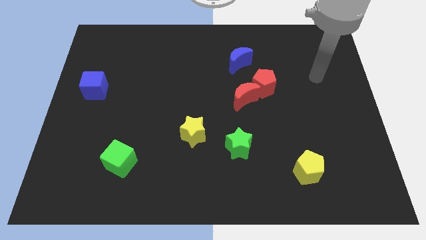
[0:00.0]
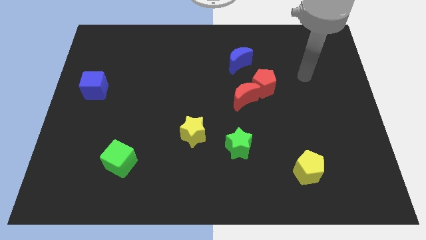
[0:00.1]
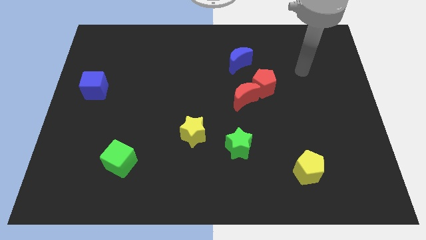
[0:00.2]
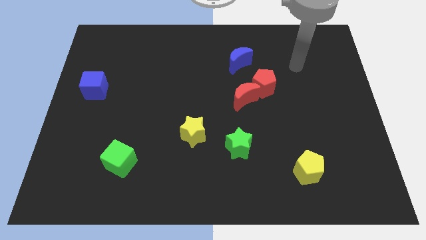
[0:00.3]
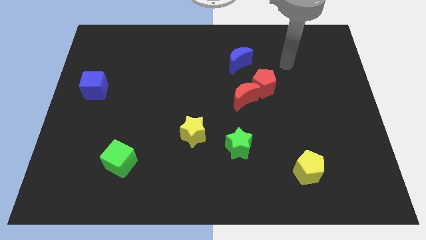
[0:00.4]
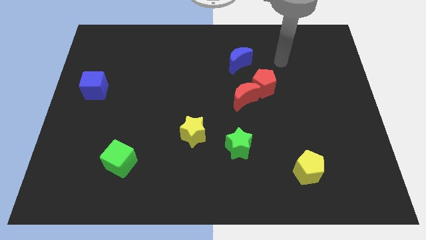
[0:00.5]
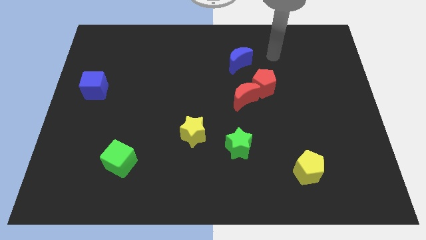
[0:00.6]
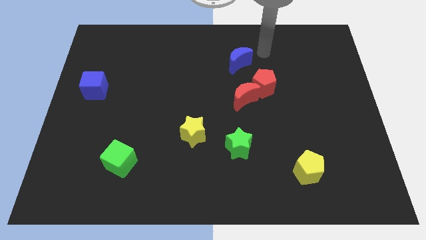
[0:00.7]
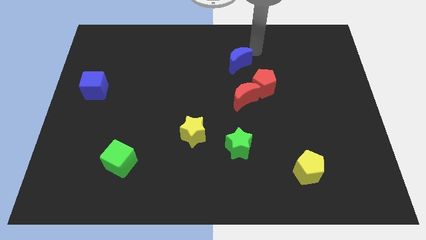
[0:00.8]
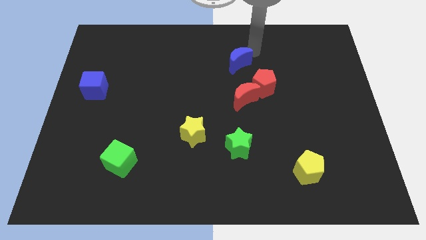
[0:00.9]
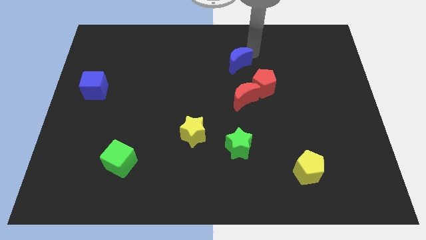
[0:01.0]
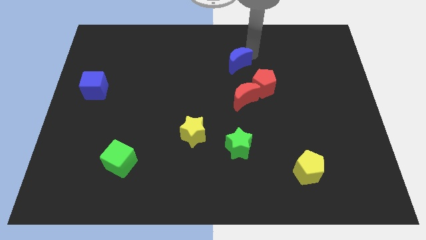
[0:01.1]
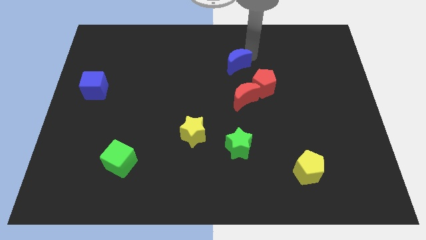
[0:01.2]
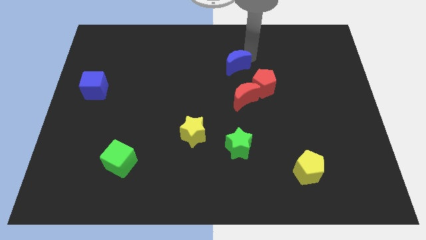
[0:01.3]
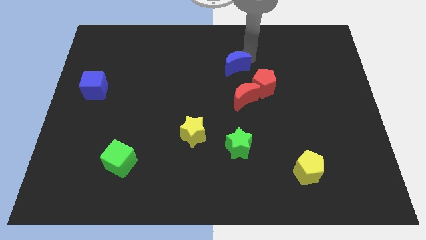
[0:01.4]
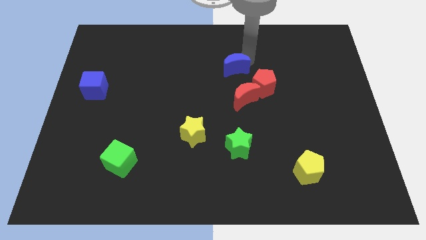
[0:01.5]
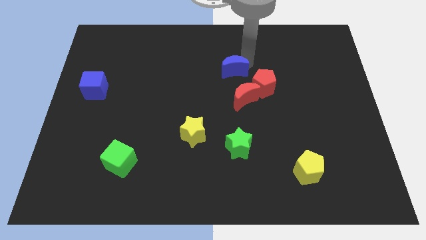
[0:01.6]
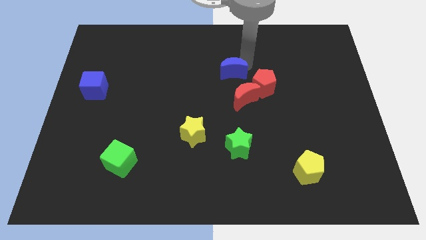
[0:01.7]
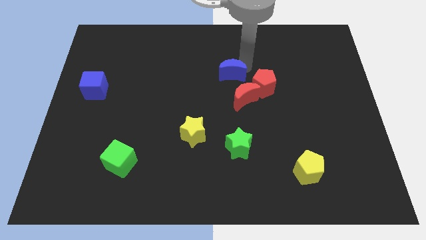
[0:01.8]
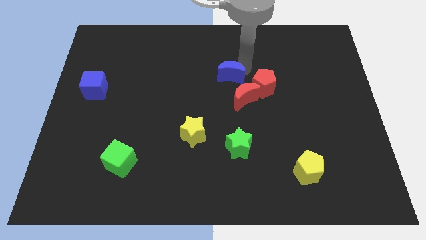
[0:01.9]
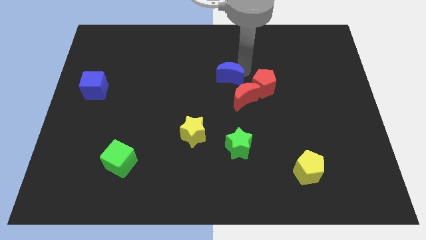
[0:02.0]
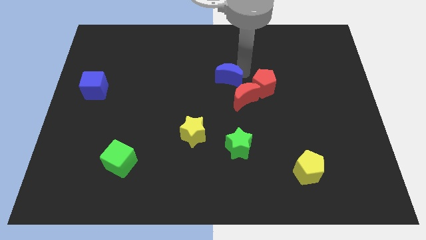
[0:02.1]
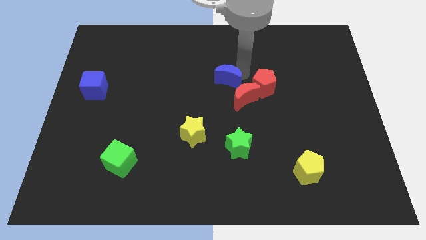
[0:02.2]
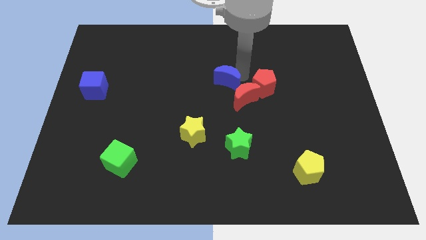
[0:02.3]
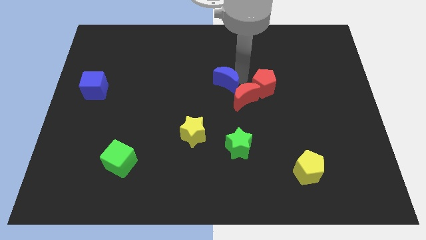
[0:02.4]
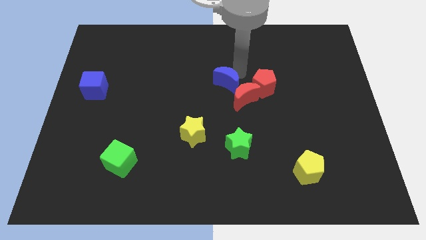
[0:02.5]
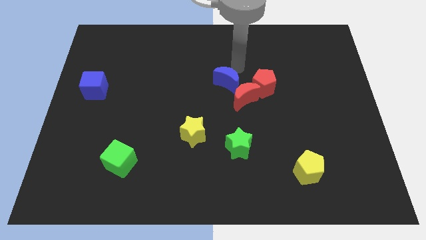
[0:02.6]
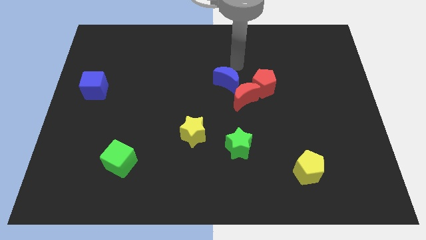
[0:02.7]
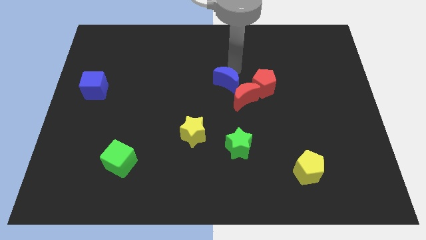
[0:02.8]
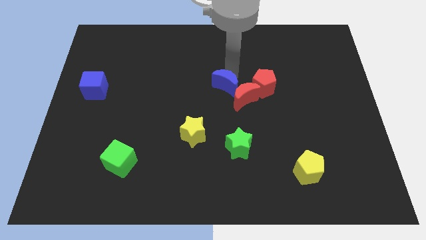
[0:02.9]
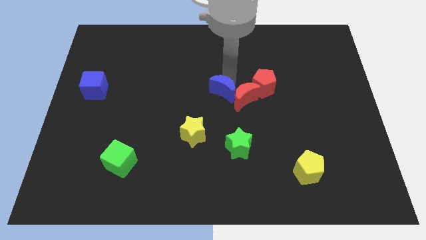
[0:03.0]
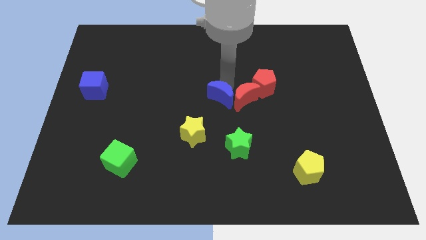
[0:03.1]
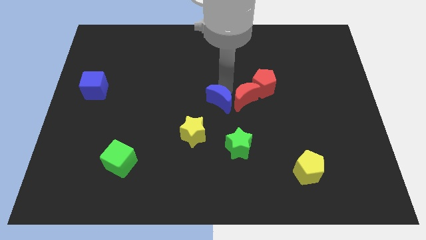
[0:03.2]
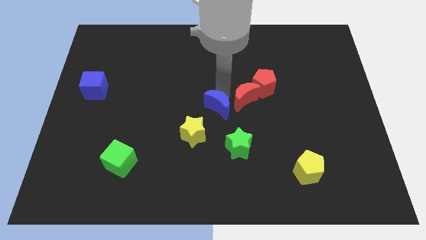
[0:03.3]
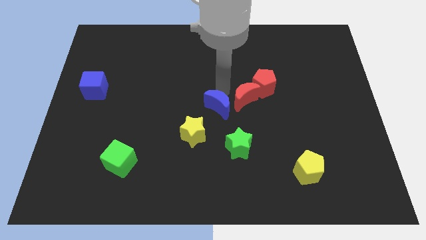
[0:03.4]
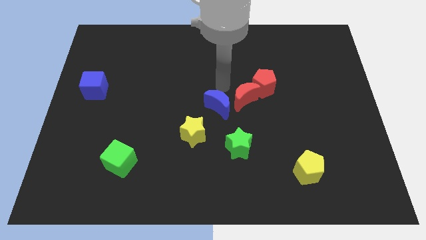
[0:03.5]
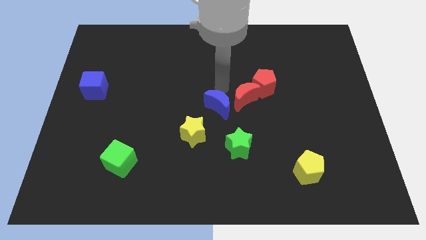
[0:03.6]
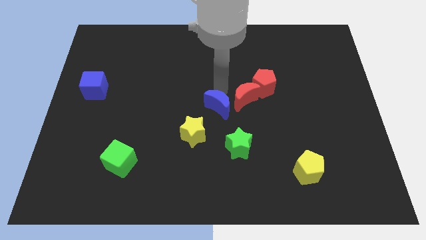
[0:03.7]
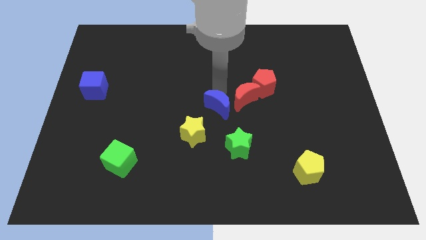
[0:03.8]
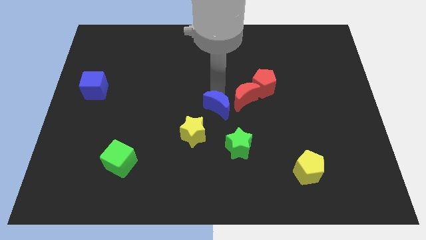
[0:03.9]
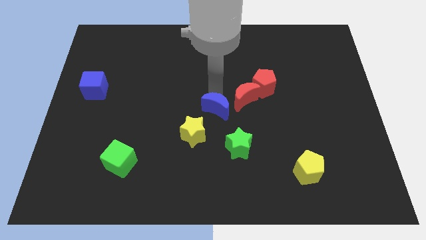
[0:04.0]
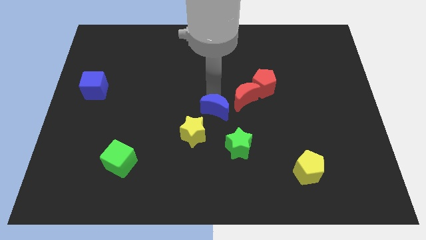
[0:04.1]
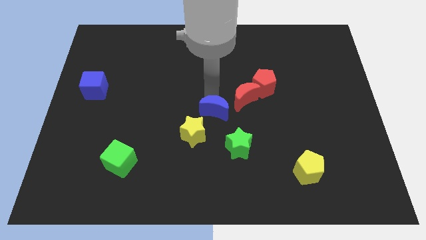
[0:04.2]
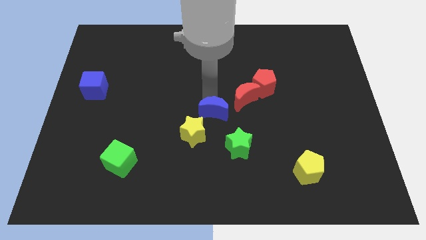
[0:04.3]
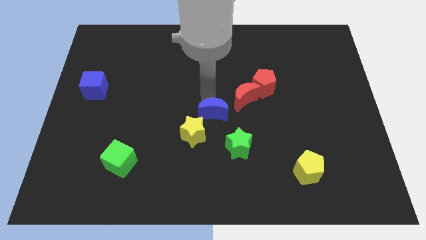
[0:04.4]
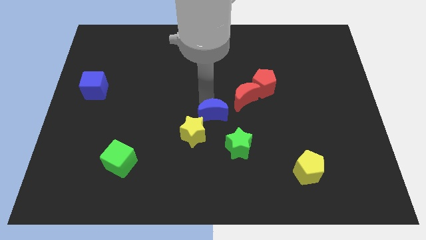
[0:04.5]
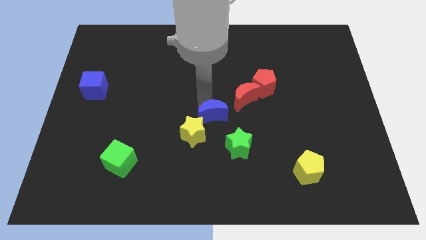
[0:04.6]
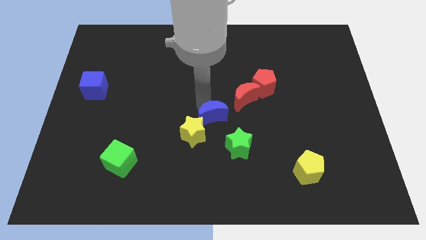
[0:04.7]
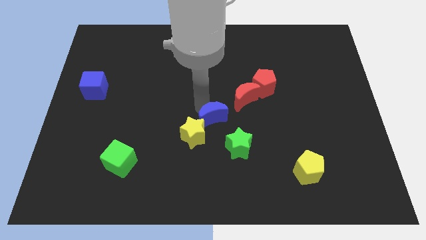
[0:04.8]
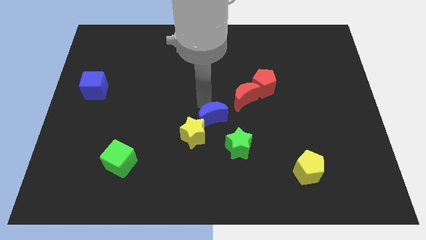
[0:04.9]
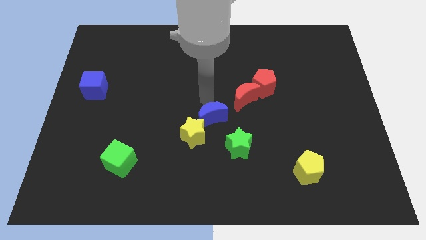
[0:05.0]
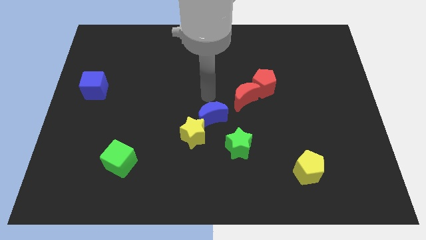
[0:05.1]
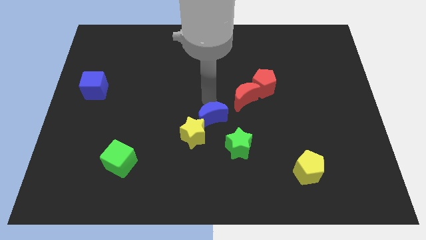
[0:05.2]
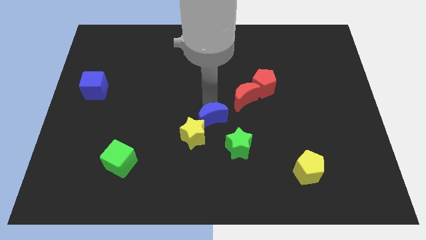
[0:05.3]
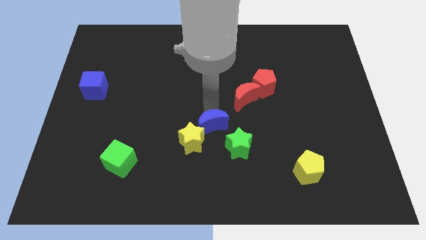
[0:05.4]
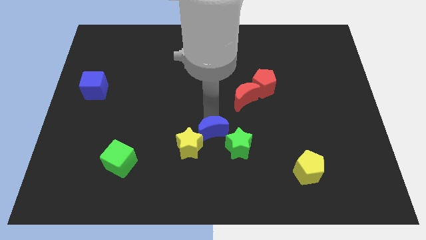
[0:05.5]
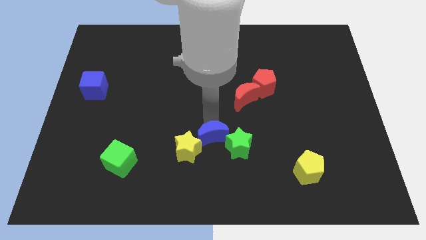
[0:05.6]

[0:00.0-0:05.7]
slide the blue moon downwards

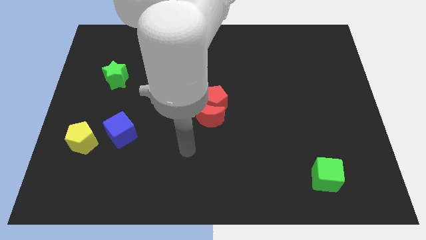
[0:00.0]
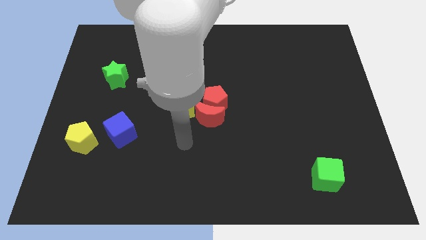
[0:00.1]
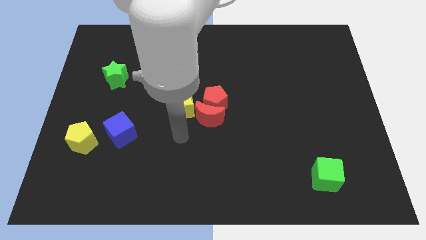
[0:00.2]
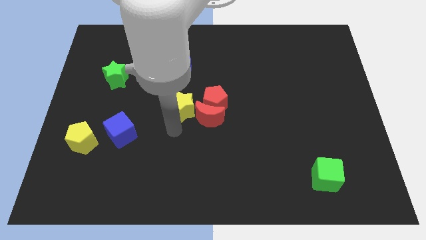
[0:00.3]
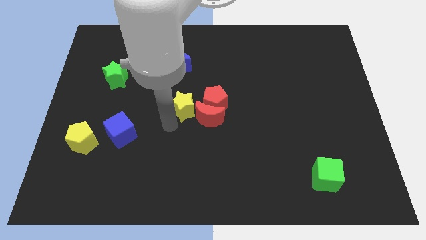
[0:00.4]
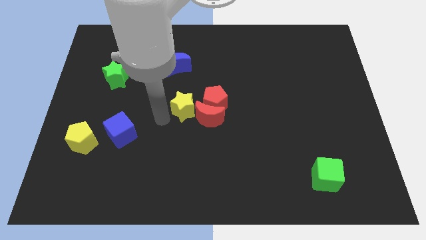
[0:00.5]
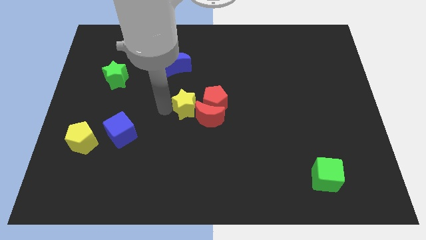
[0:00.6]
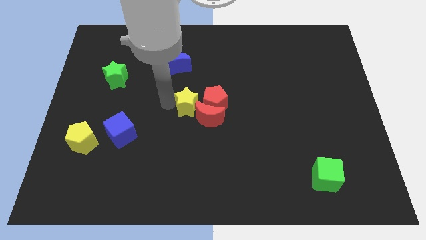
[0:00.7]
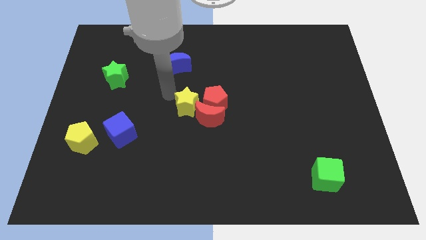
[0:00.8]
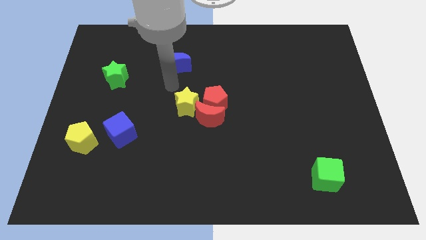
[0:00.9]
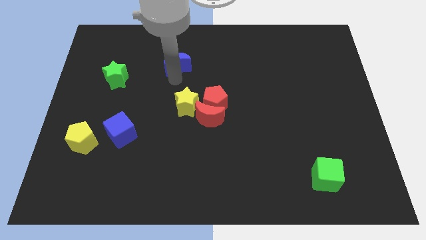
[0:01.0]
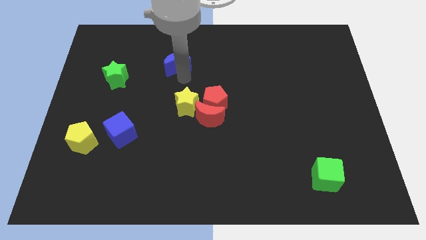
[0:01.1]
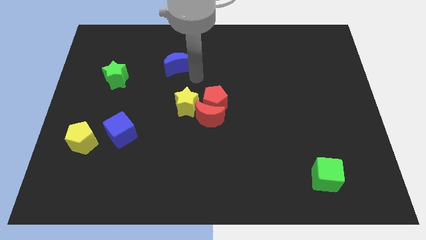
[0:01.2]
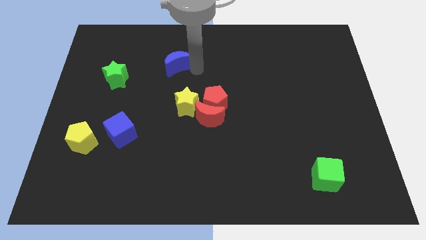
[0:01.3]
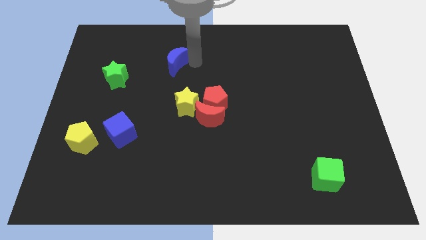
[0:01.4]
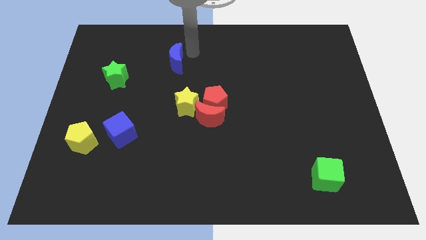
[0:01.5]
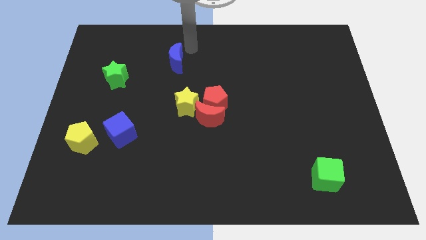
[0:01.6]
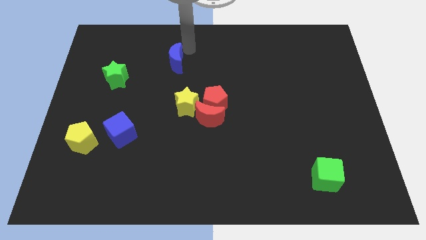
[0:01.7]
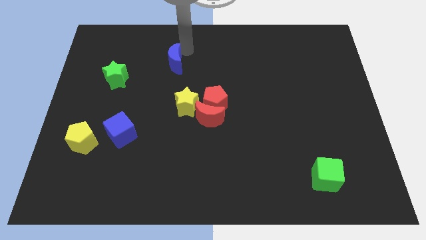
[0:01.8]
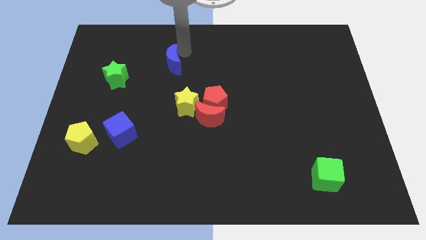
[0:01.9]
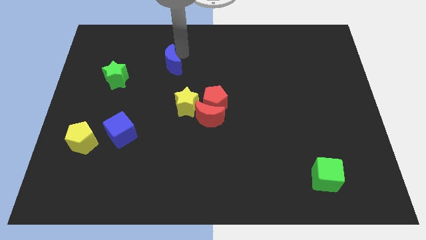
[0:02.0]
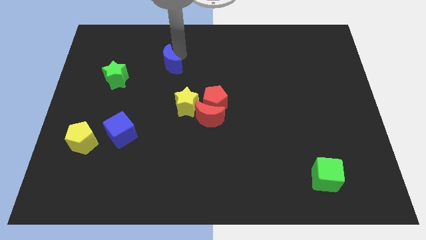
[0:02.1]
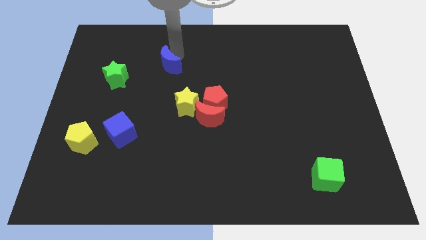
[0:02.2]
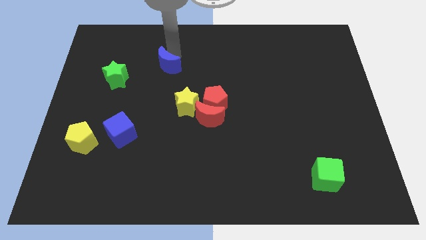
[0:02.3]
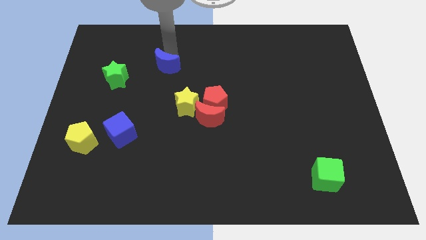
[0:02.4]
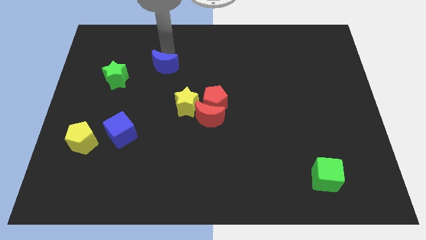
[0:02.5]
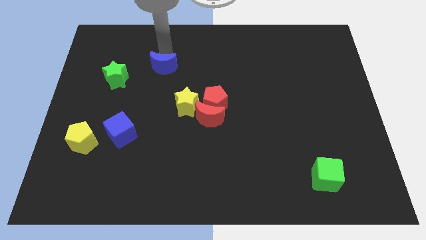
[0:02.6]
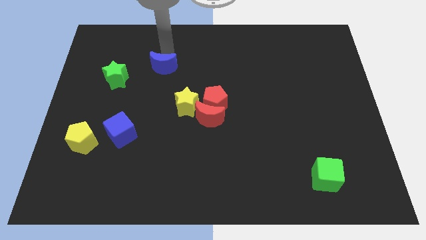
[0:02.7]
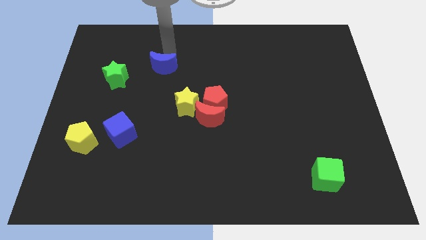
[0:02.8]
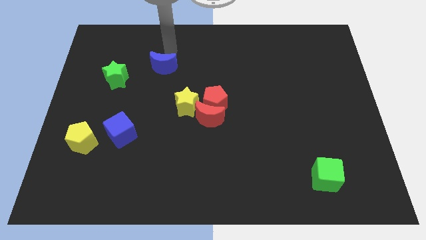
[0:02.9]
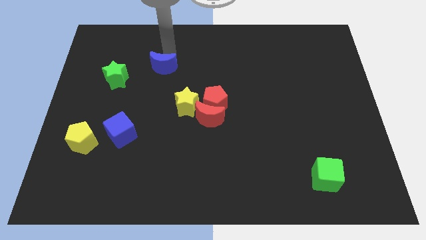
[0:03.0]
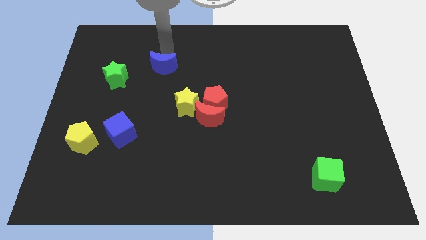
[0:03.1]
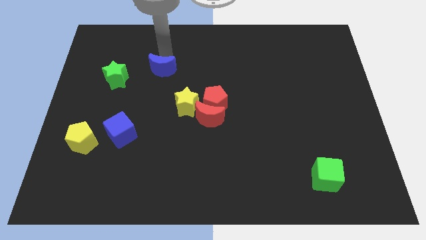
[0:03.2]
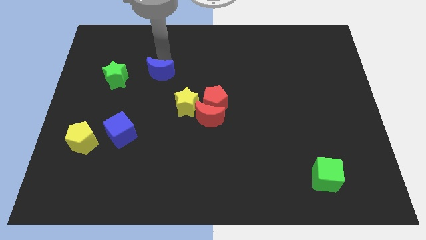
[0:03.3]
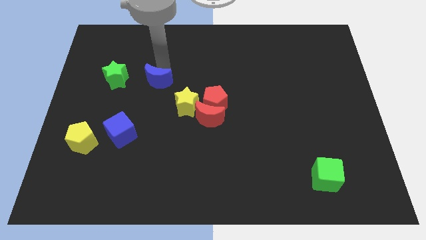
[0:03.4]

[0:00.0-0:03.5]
slightly slide the blue moon down and left diagonally
